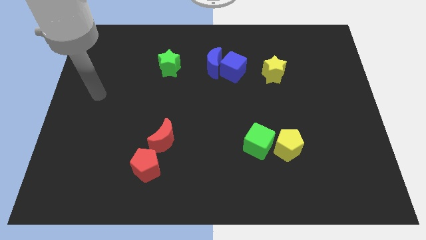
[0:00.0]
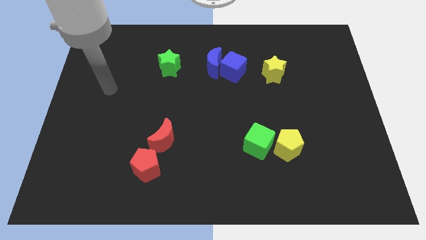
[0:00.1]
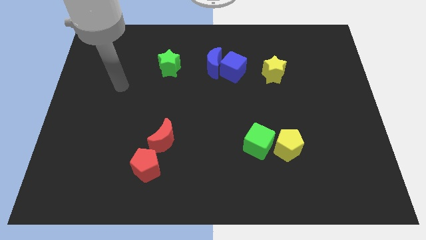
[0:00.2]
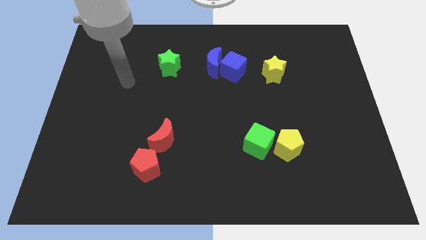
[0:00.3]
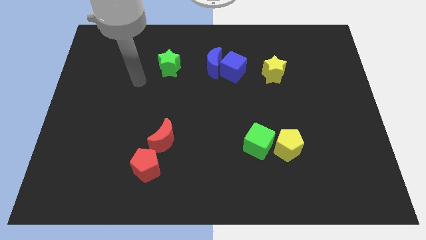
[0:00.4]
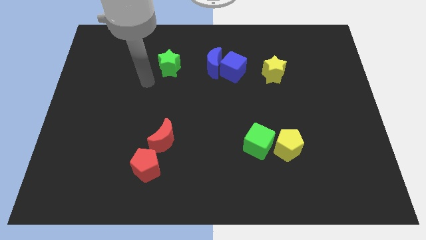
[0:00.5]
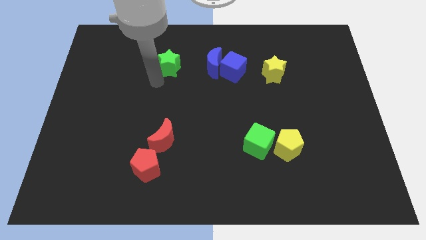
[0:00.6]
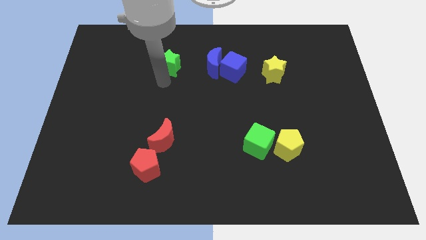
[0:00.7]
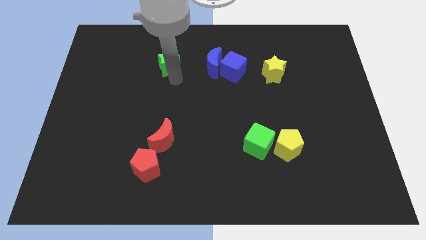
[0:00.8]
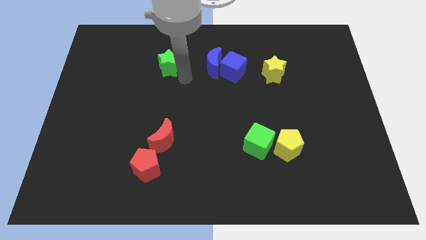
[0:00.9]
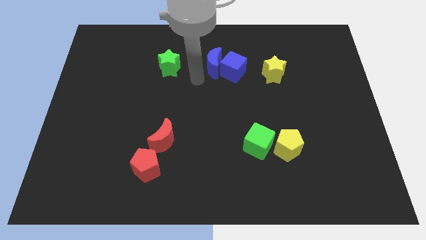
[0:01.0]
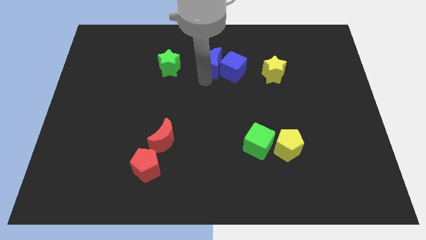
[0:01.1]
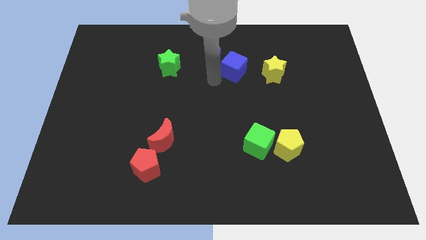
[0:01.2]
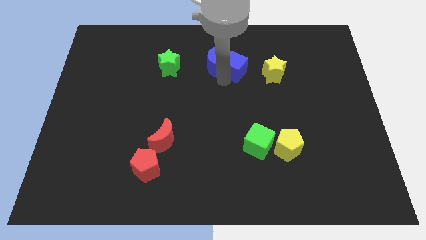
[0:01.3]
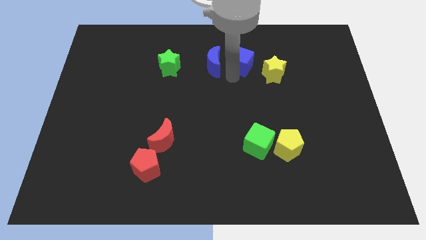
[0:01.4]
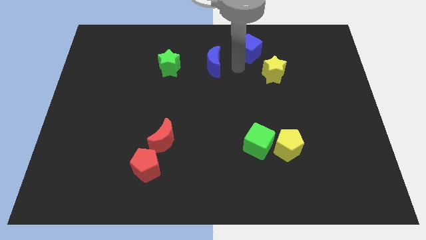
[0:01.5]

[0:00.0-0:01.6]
separate the blue moon from the blue cube

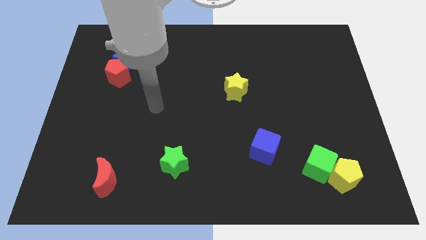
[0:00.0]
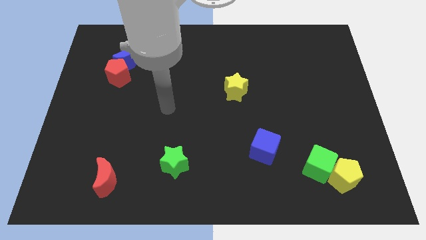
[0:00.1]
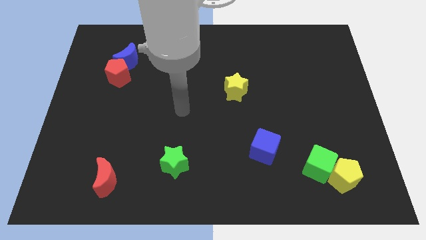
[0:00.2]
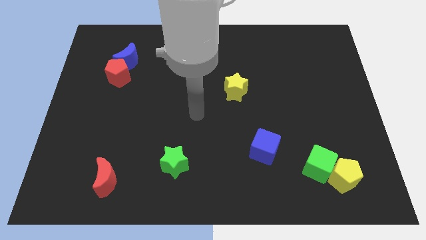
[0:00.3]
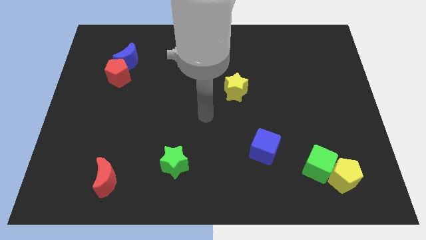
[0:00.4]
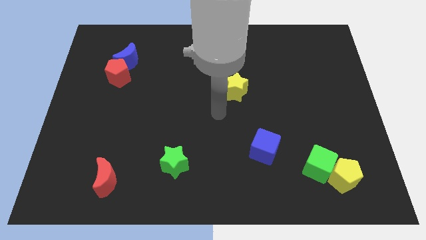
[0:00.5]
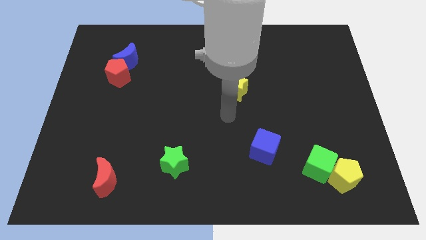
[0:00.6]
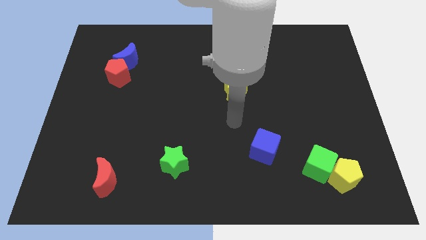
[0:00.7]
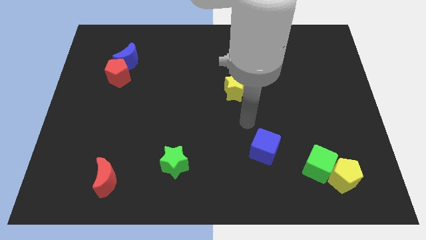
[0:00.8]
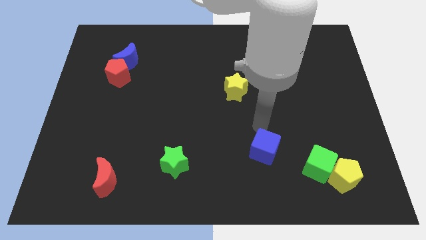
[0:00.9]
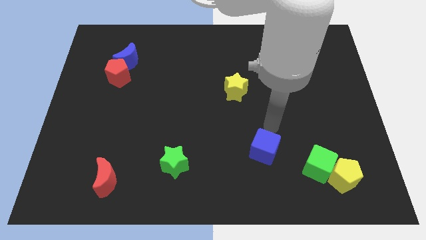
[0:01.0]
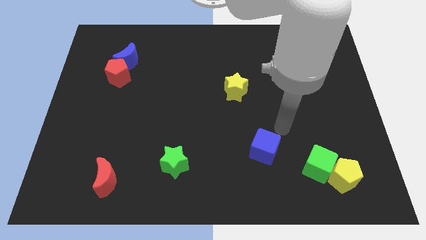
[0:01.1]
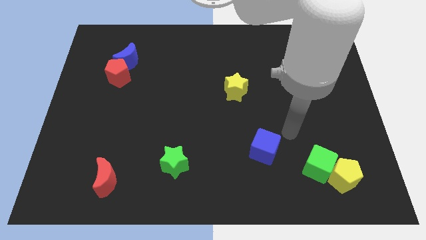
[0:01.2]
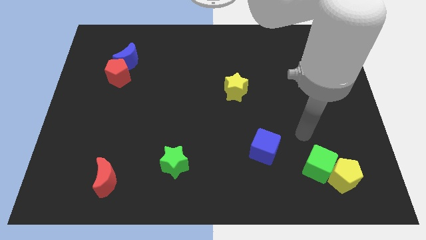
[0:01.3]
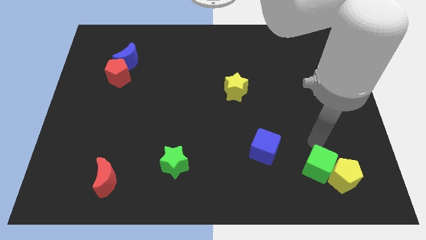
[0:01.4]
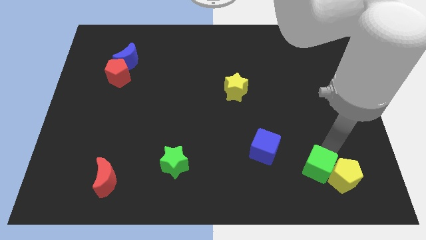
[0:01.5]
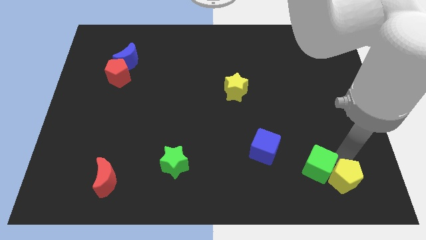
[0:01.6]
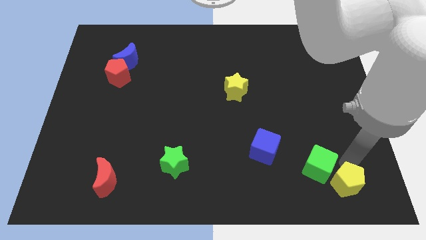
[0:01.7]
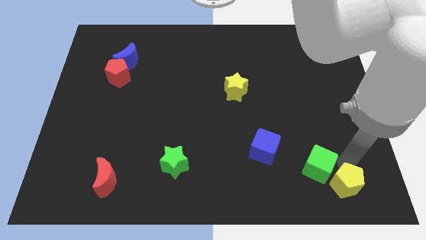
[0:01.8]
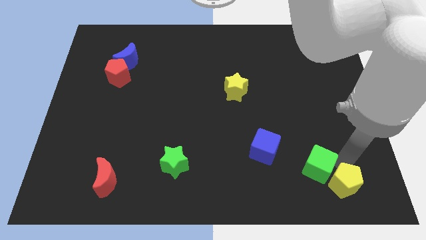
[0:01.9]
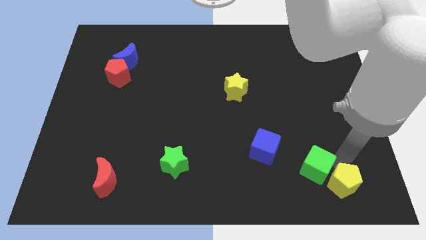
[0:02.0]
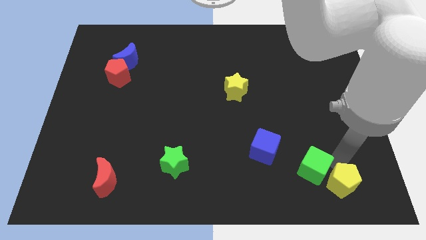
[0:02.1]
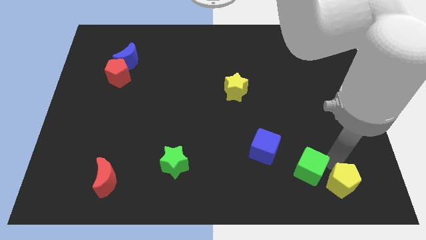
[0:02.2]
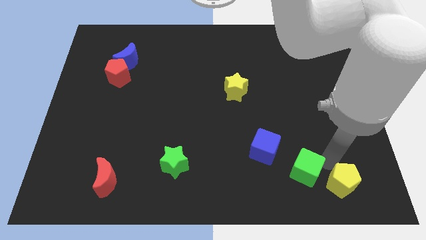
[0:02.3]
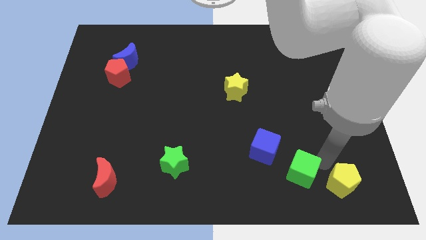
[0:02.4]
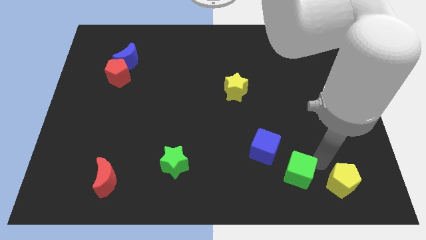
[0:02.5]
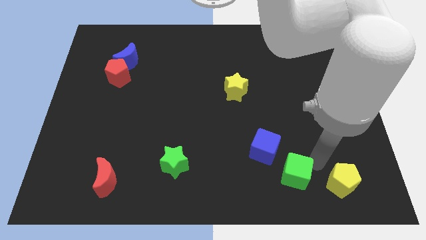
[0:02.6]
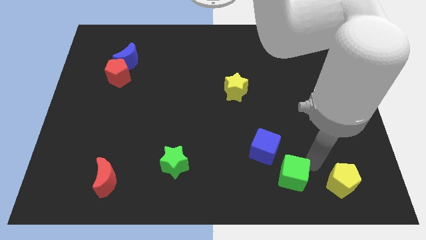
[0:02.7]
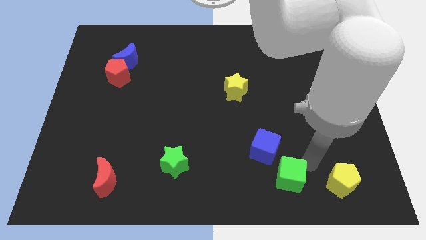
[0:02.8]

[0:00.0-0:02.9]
separate the green cube from the yellow pentagon

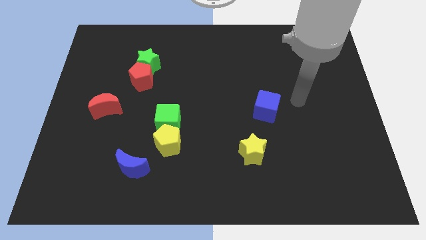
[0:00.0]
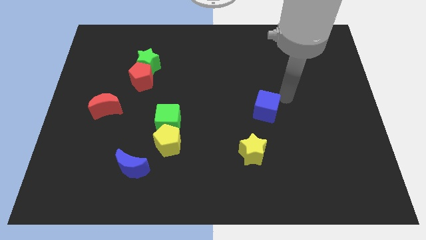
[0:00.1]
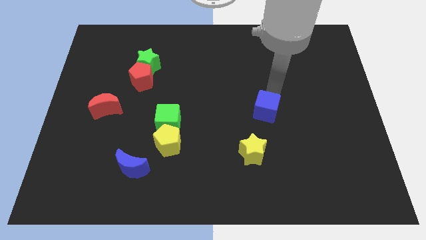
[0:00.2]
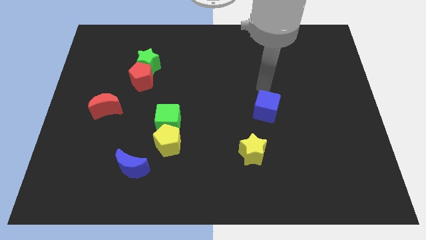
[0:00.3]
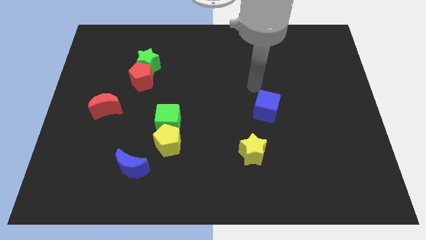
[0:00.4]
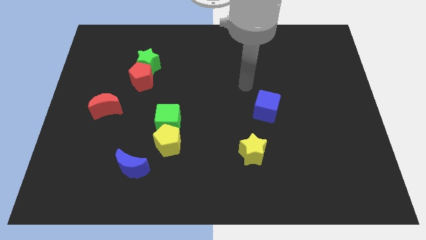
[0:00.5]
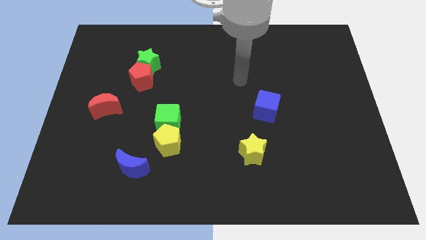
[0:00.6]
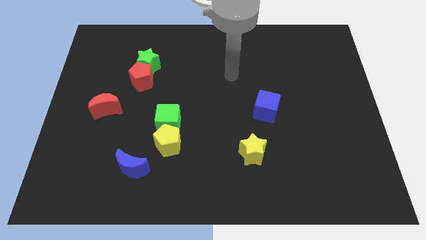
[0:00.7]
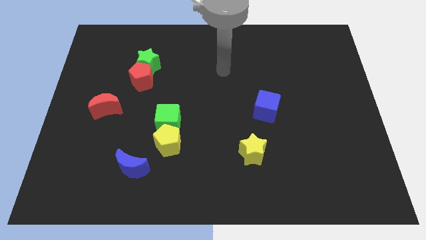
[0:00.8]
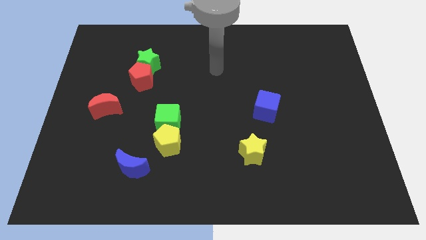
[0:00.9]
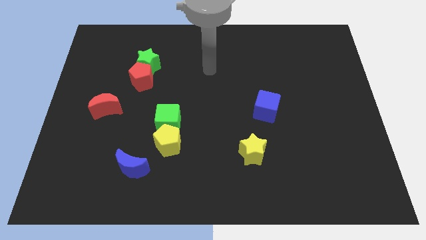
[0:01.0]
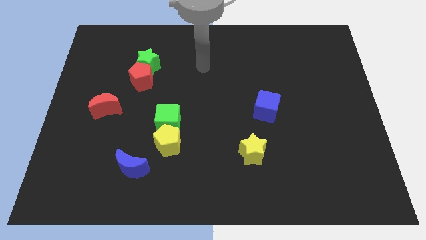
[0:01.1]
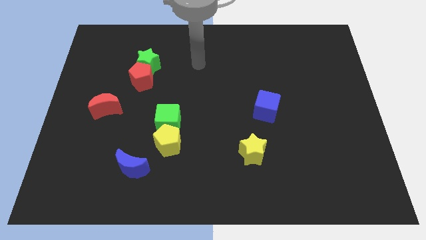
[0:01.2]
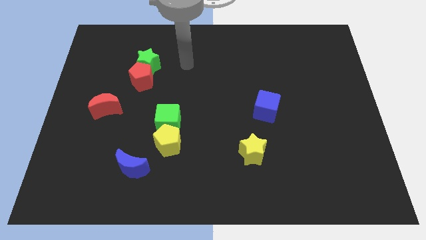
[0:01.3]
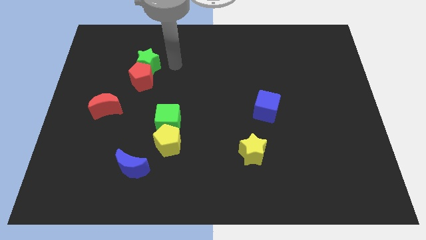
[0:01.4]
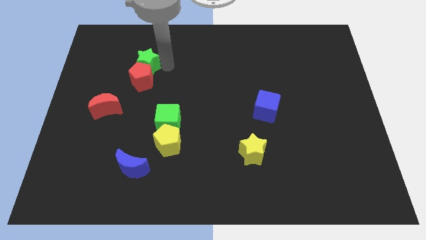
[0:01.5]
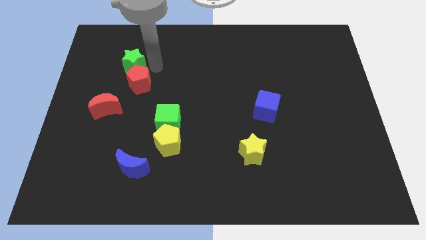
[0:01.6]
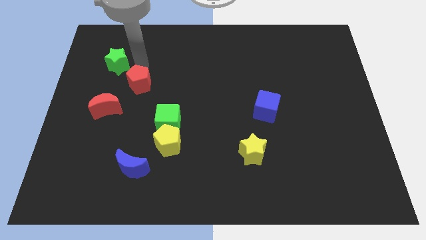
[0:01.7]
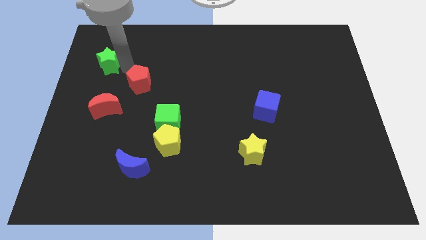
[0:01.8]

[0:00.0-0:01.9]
pull the red pentagon apart from the green star

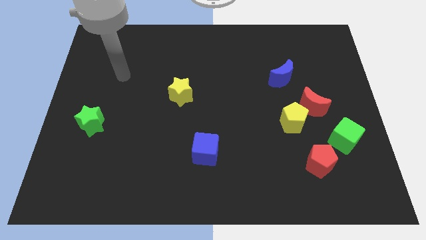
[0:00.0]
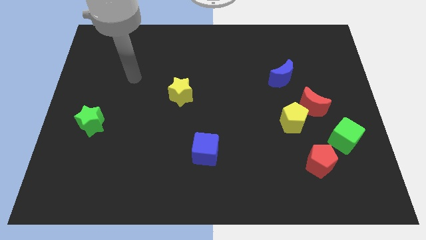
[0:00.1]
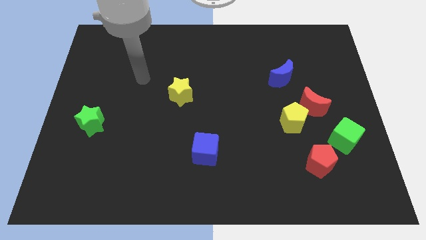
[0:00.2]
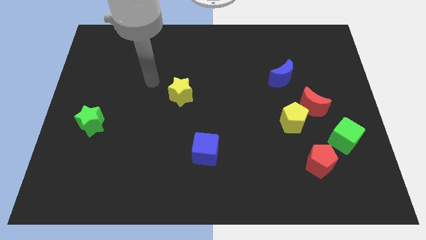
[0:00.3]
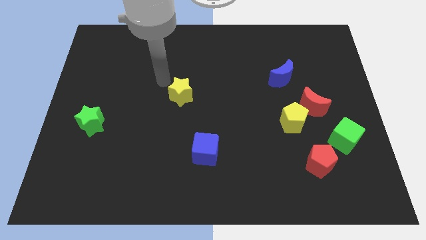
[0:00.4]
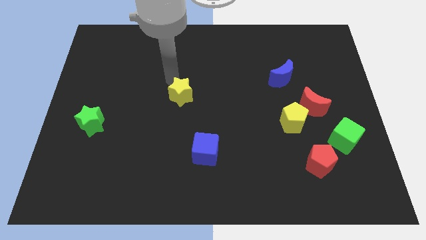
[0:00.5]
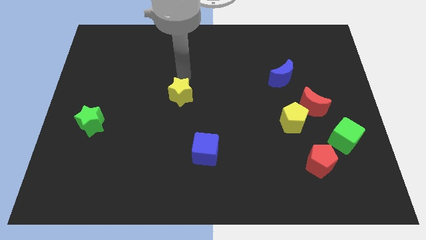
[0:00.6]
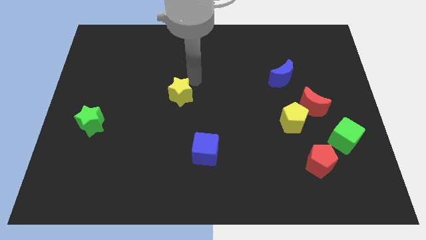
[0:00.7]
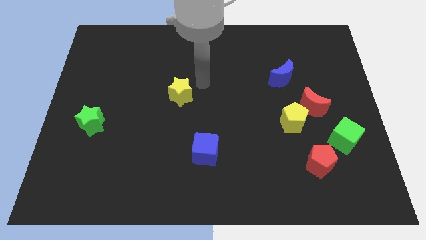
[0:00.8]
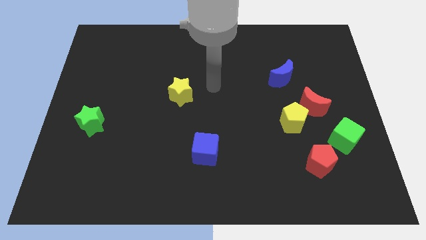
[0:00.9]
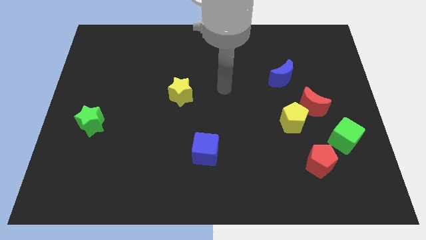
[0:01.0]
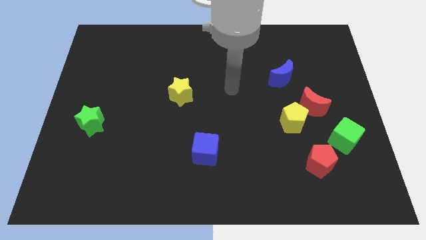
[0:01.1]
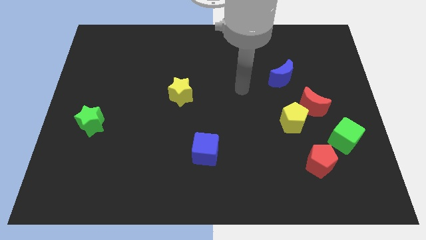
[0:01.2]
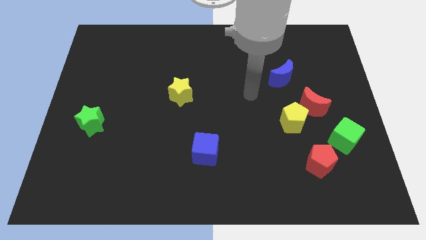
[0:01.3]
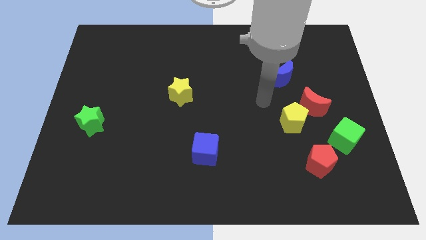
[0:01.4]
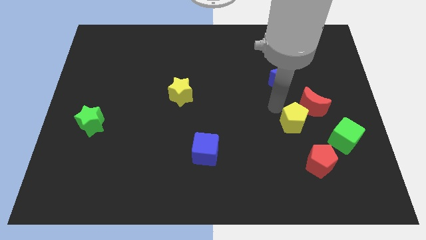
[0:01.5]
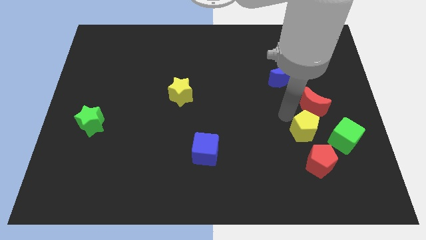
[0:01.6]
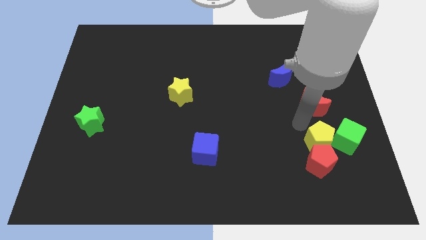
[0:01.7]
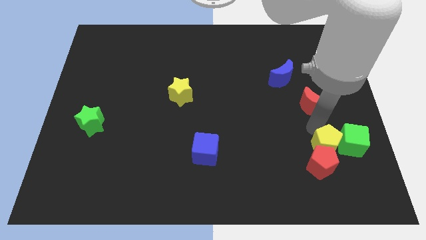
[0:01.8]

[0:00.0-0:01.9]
separate the red moon from the yellow pentagon

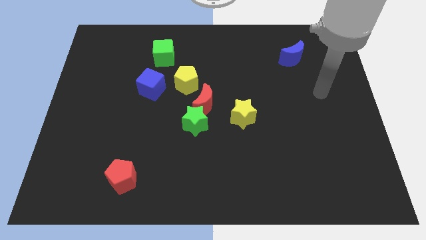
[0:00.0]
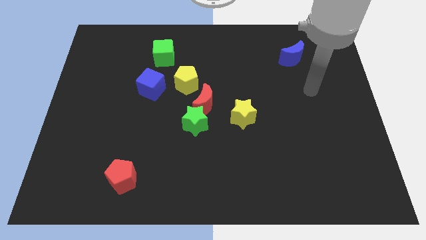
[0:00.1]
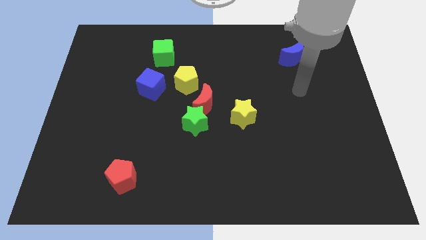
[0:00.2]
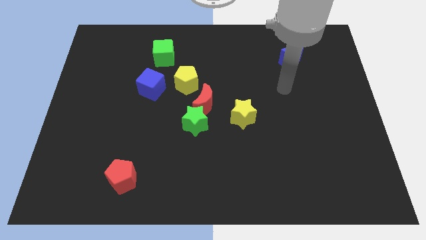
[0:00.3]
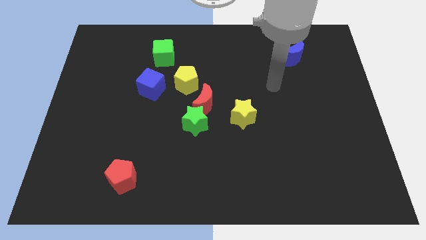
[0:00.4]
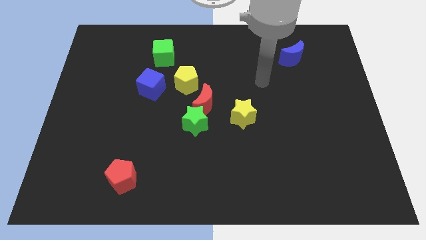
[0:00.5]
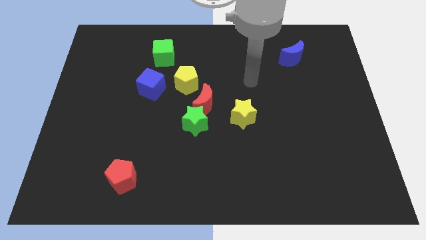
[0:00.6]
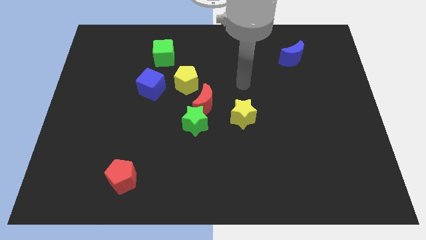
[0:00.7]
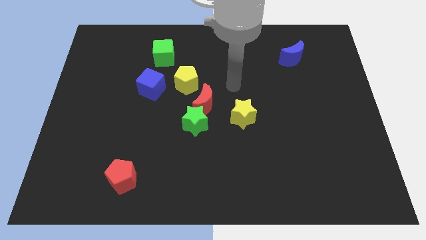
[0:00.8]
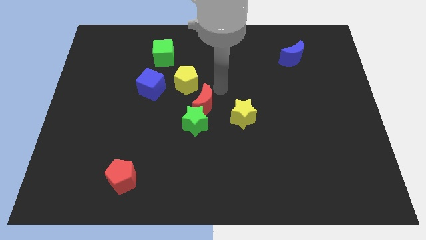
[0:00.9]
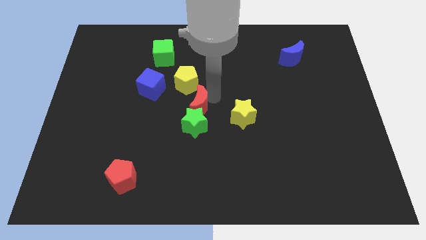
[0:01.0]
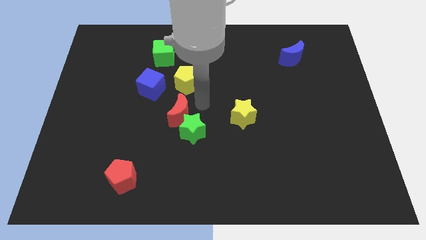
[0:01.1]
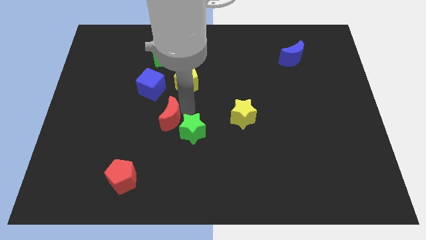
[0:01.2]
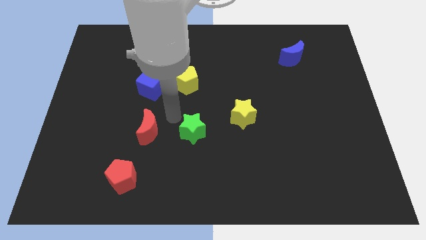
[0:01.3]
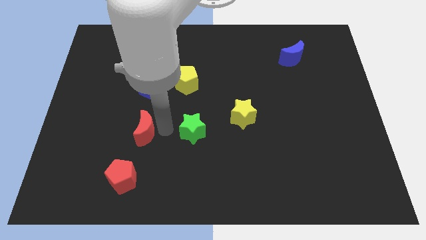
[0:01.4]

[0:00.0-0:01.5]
pull the green star apart from the red moon
